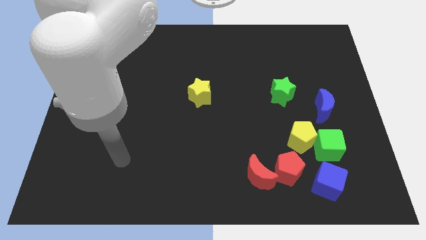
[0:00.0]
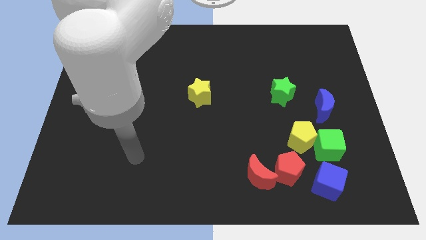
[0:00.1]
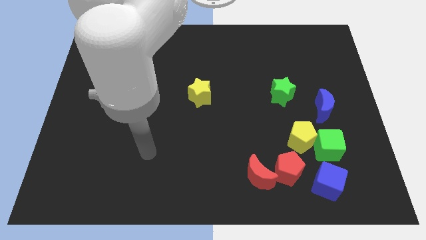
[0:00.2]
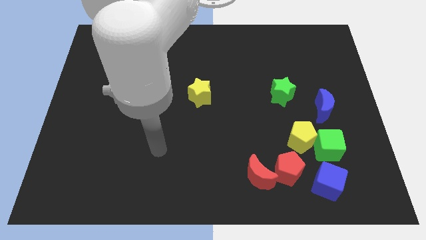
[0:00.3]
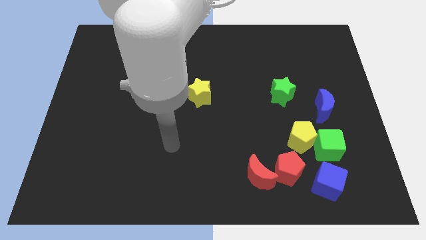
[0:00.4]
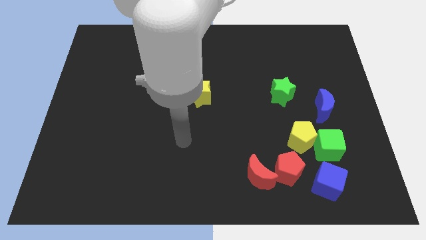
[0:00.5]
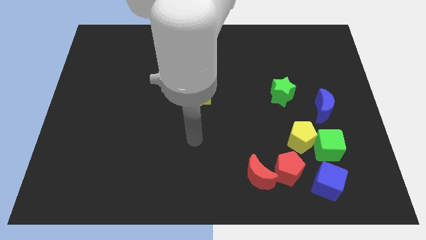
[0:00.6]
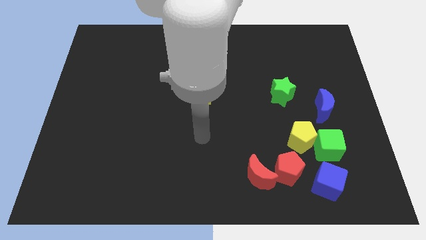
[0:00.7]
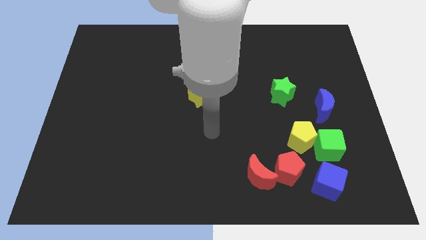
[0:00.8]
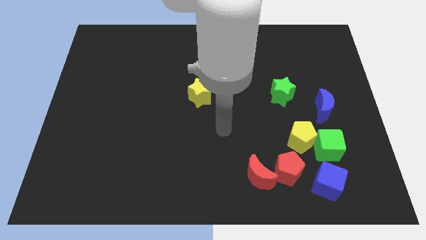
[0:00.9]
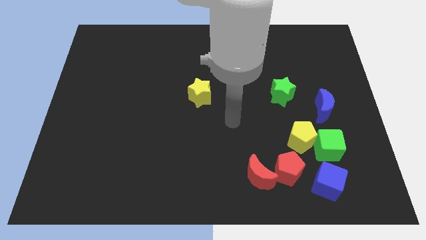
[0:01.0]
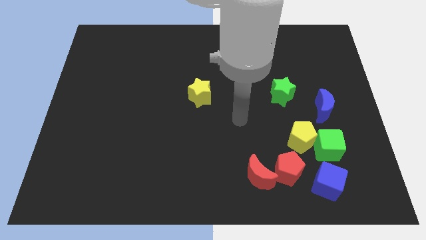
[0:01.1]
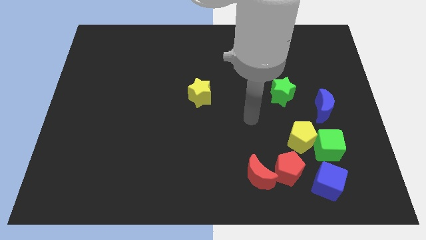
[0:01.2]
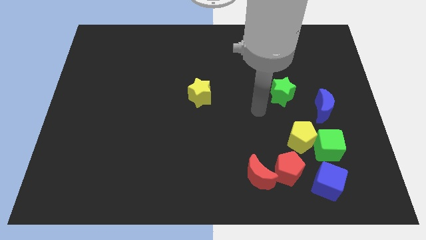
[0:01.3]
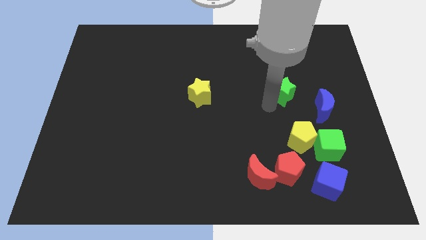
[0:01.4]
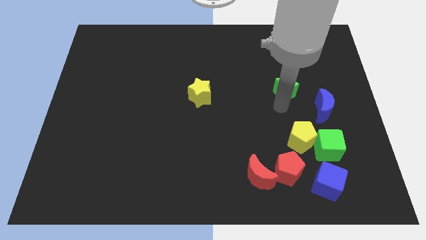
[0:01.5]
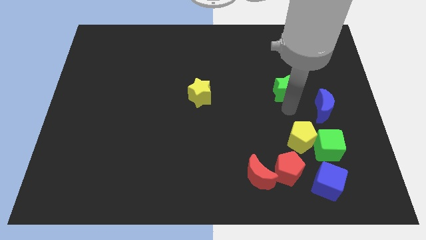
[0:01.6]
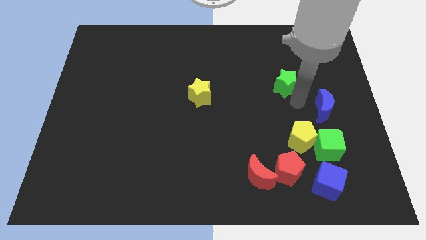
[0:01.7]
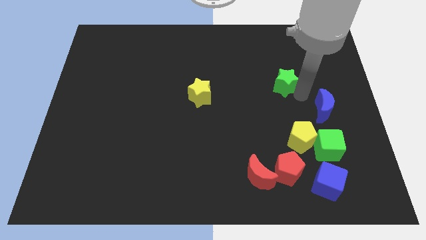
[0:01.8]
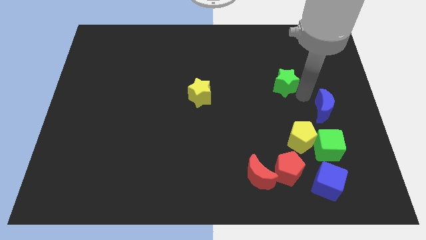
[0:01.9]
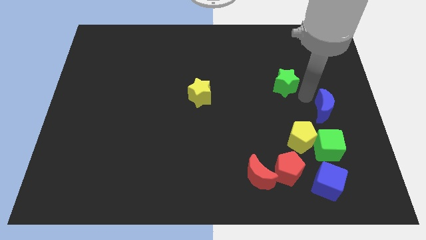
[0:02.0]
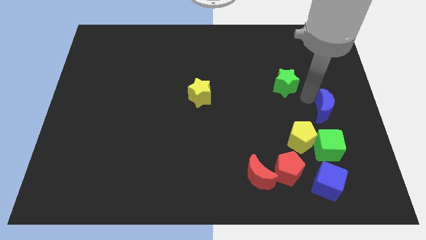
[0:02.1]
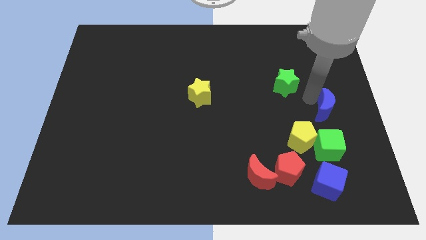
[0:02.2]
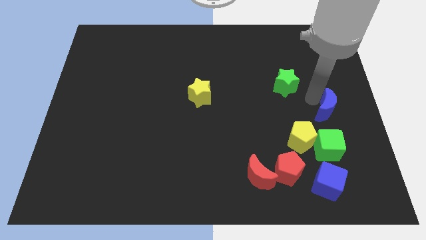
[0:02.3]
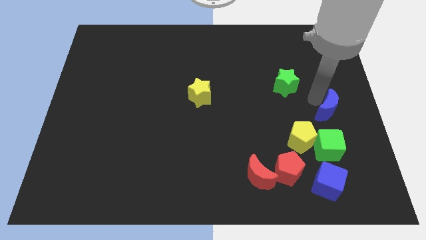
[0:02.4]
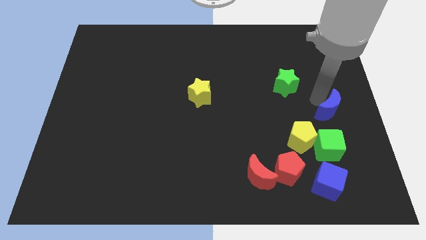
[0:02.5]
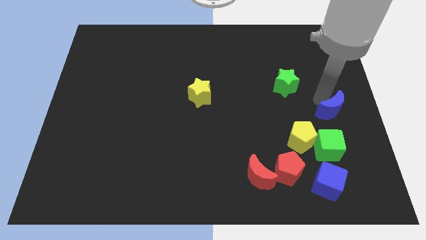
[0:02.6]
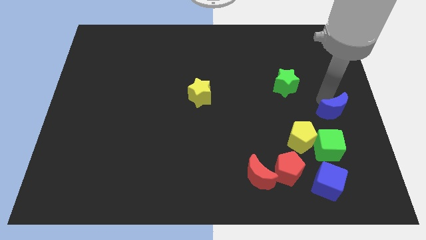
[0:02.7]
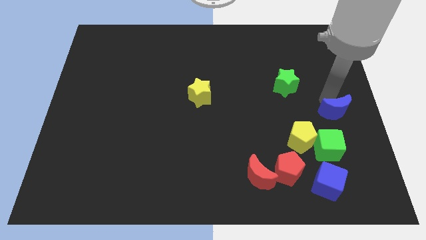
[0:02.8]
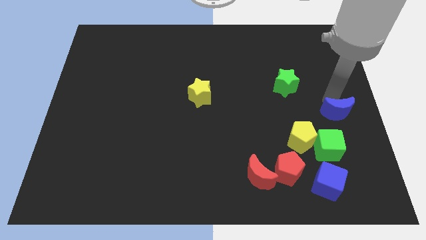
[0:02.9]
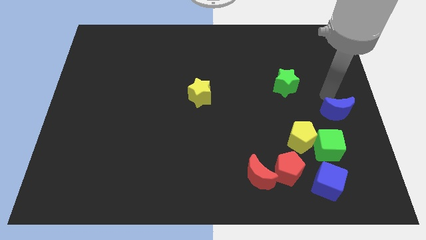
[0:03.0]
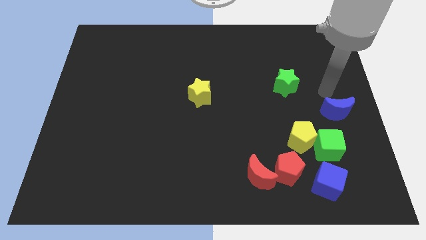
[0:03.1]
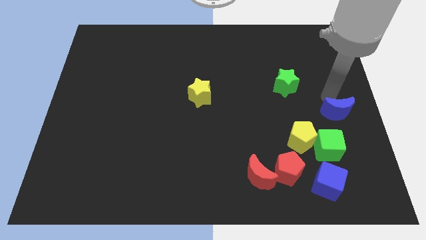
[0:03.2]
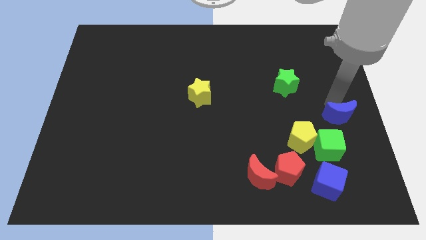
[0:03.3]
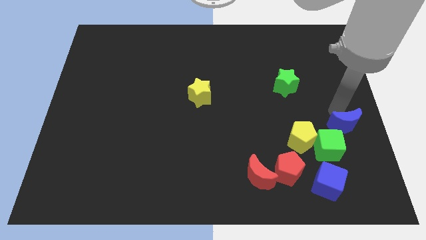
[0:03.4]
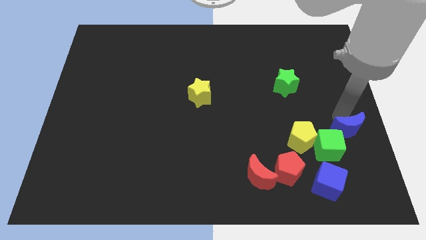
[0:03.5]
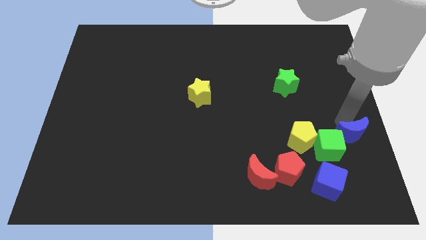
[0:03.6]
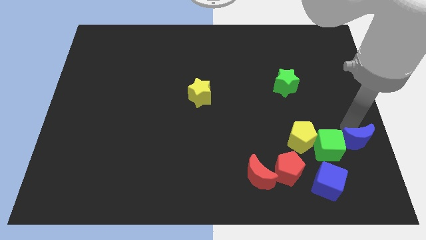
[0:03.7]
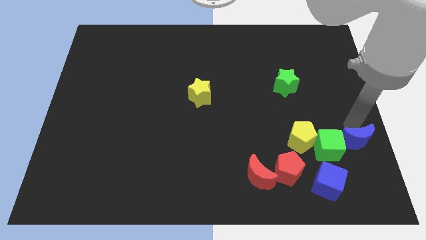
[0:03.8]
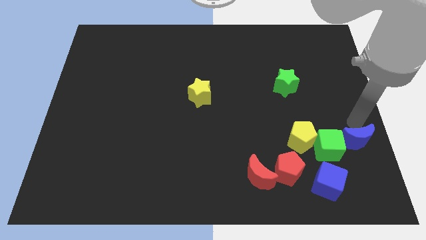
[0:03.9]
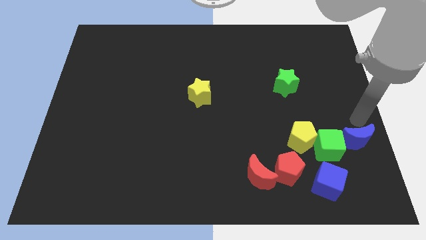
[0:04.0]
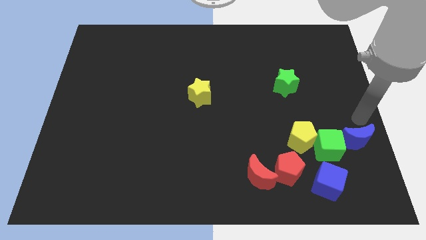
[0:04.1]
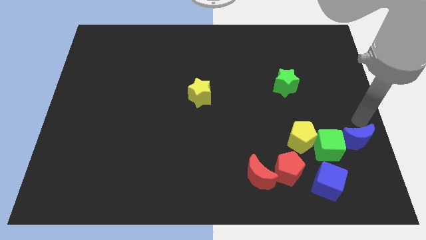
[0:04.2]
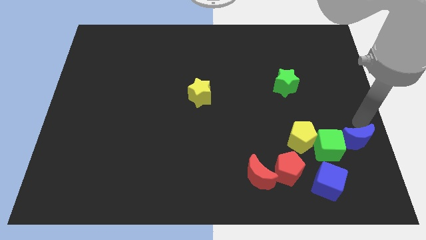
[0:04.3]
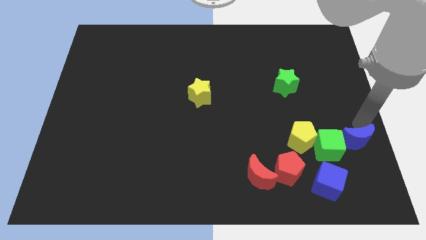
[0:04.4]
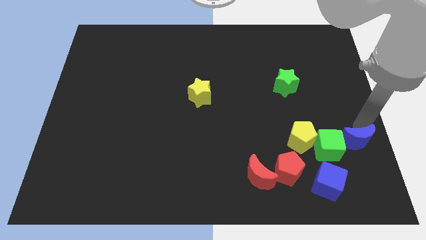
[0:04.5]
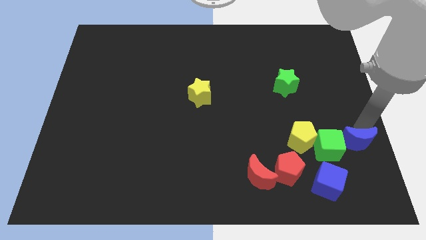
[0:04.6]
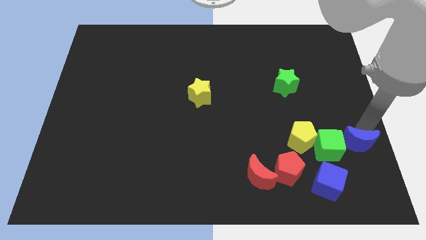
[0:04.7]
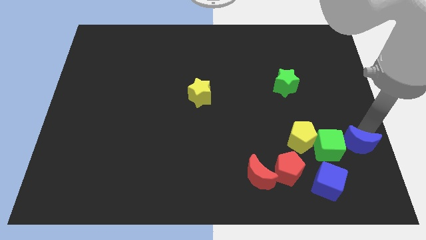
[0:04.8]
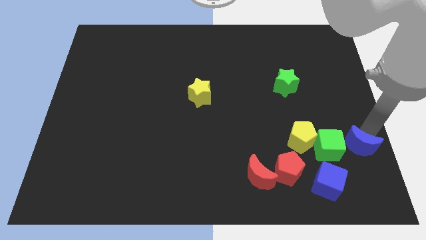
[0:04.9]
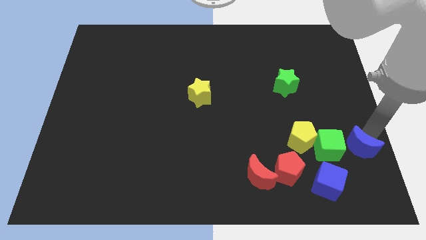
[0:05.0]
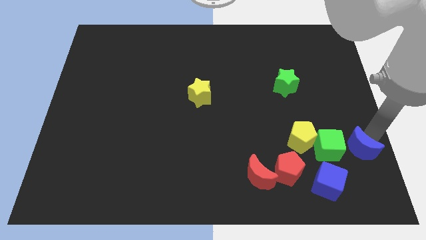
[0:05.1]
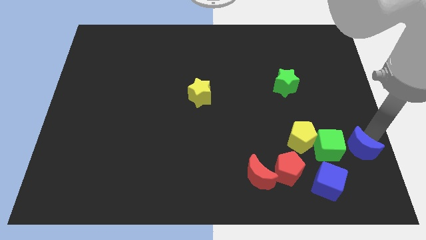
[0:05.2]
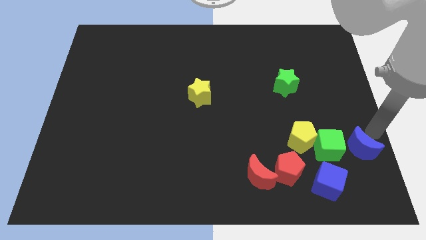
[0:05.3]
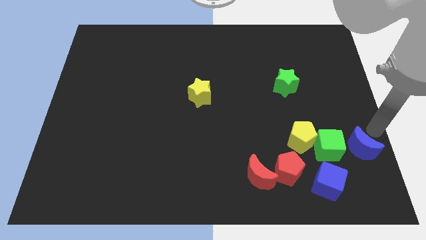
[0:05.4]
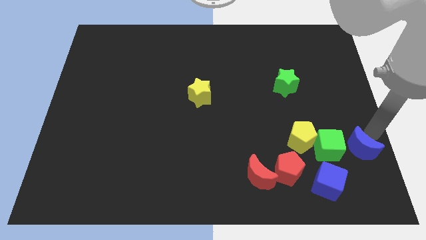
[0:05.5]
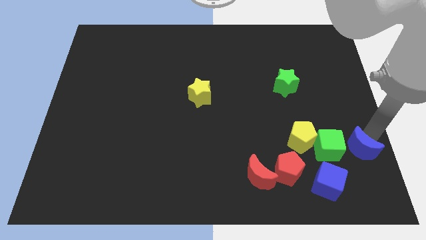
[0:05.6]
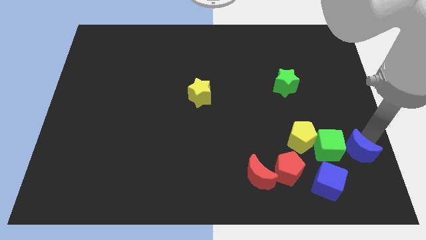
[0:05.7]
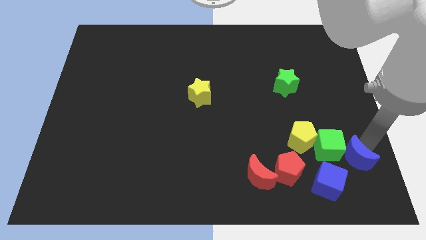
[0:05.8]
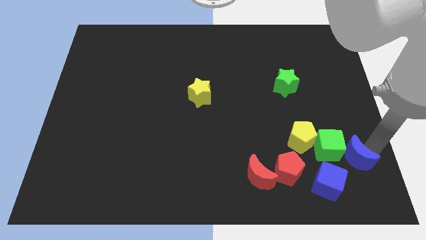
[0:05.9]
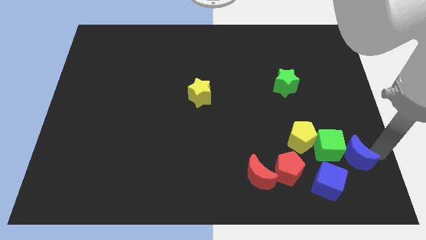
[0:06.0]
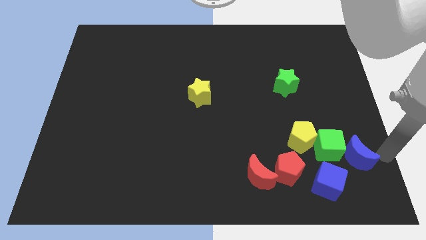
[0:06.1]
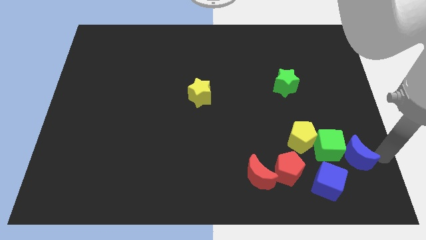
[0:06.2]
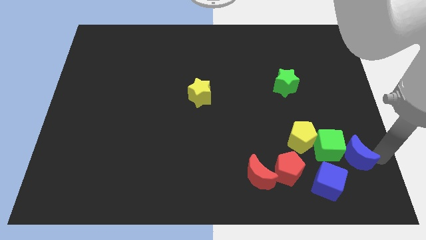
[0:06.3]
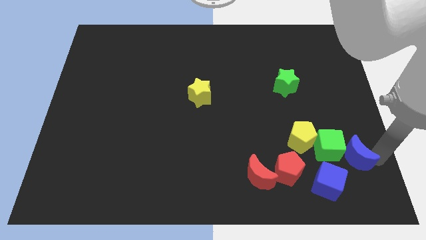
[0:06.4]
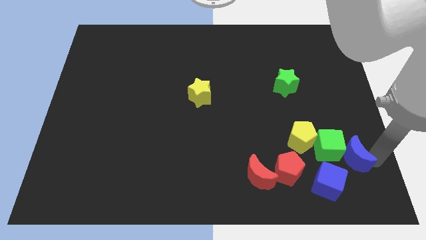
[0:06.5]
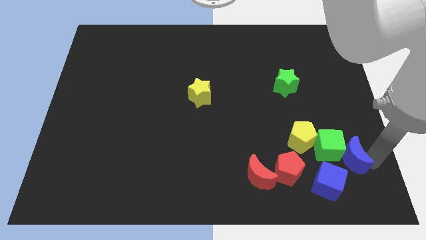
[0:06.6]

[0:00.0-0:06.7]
move the blue moon diagonally down and to the right of the yellow pentagon
